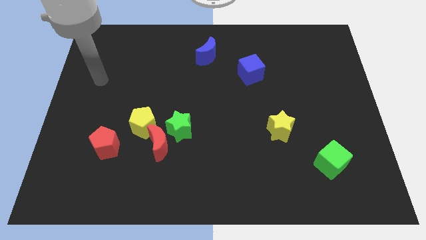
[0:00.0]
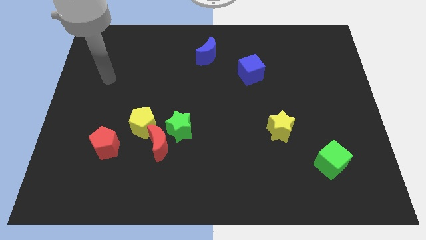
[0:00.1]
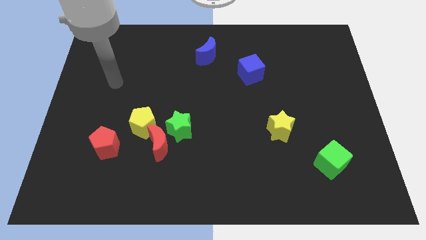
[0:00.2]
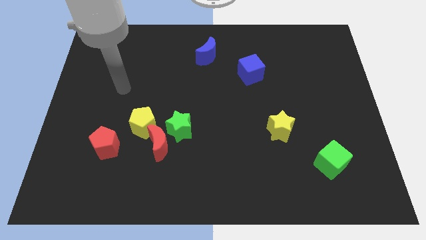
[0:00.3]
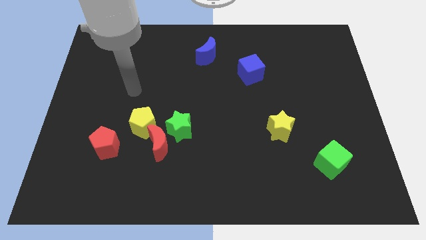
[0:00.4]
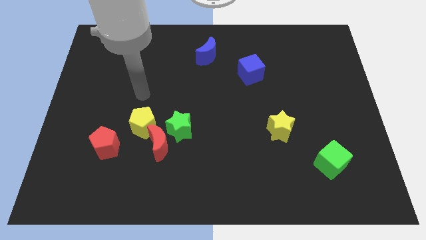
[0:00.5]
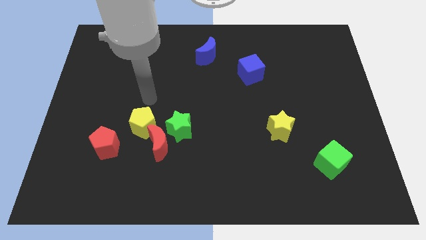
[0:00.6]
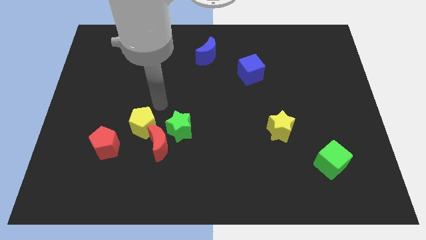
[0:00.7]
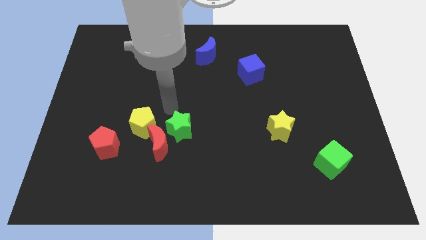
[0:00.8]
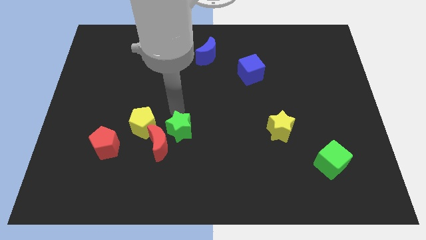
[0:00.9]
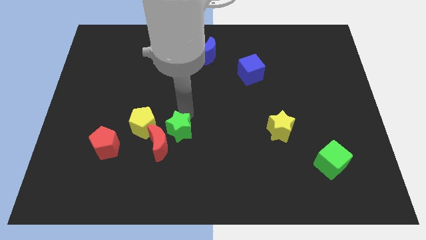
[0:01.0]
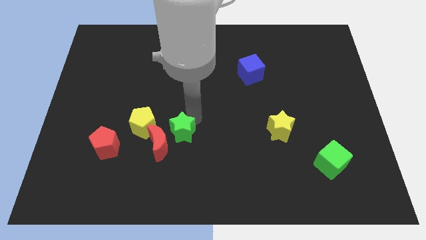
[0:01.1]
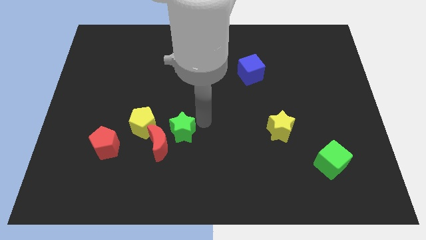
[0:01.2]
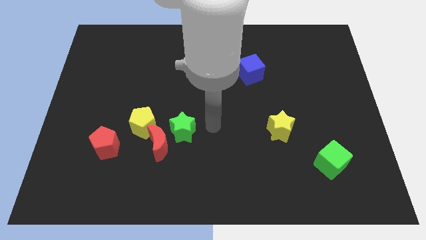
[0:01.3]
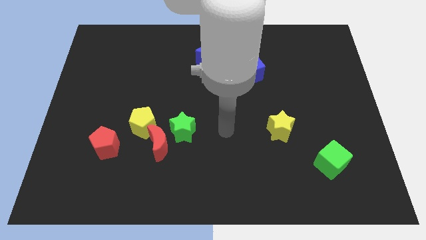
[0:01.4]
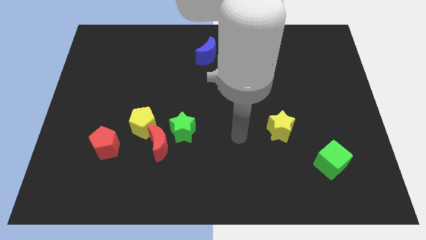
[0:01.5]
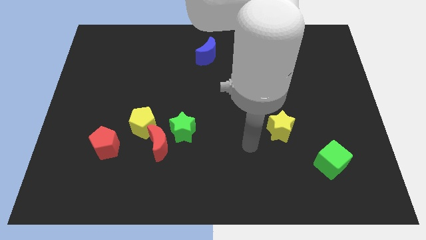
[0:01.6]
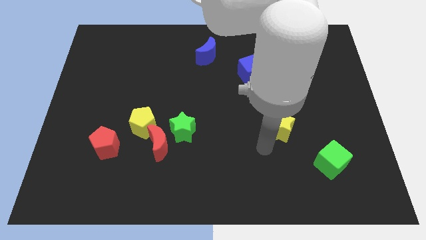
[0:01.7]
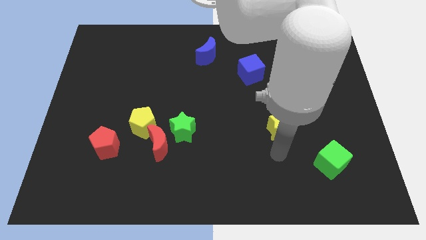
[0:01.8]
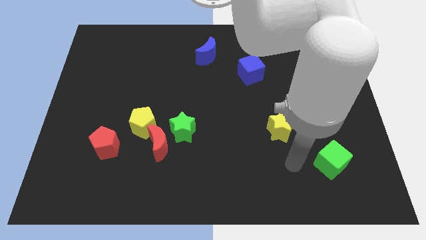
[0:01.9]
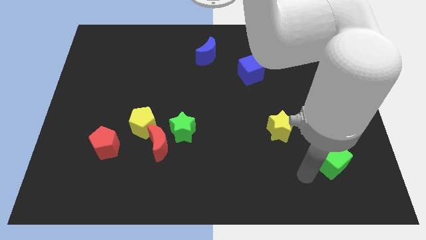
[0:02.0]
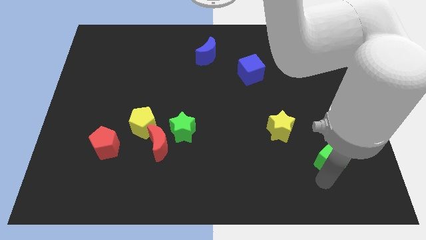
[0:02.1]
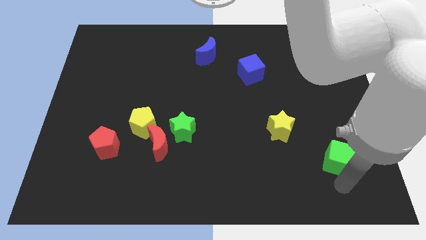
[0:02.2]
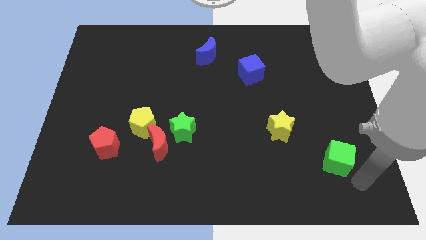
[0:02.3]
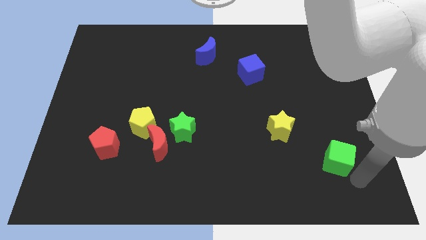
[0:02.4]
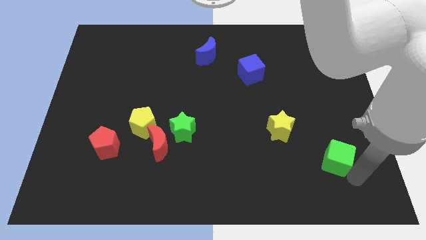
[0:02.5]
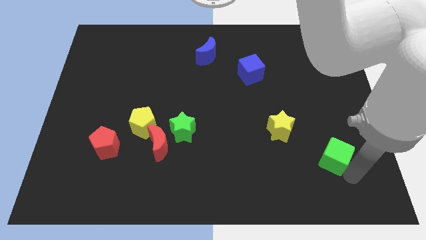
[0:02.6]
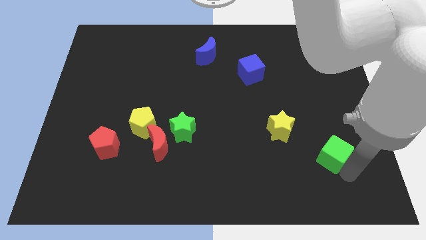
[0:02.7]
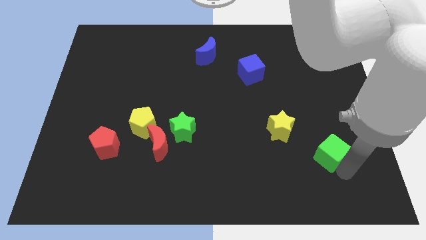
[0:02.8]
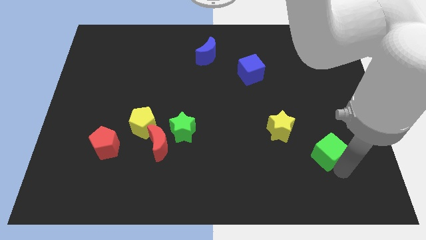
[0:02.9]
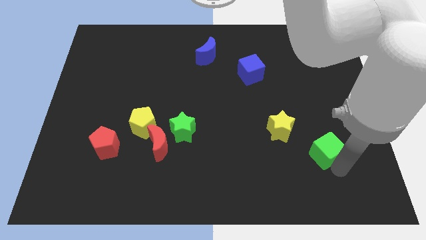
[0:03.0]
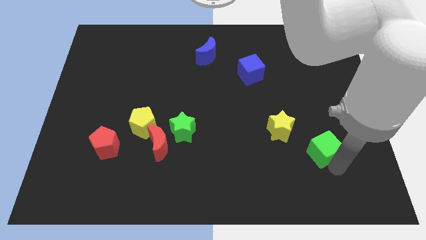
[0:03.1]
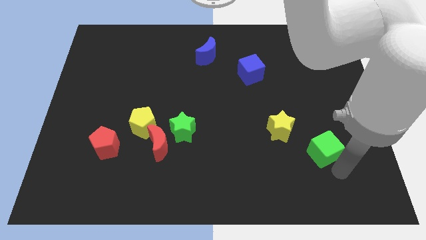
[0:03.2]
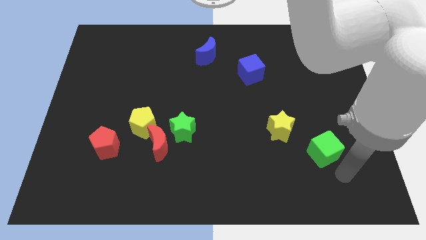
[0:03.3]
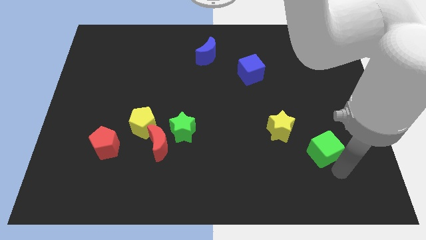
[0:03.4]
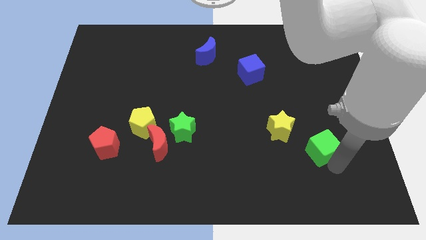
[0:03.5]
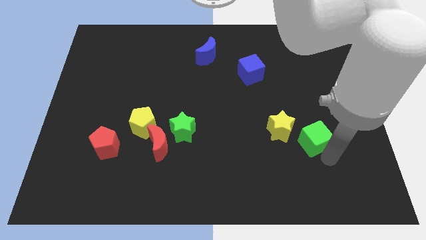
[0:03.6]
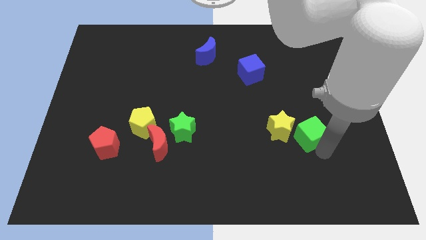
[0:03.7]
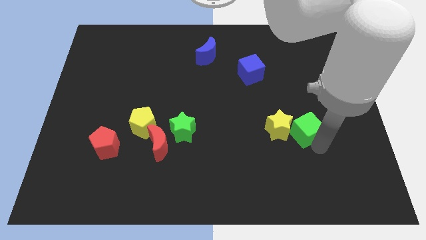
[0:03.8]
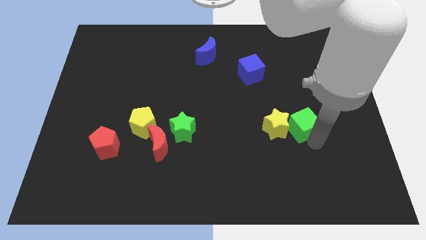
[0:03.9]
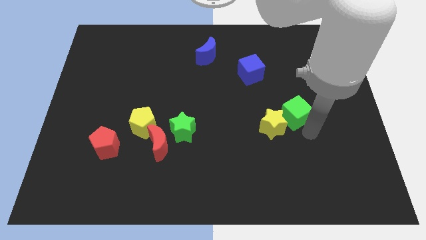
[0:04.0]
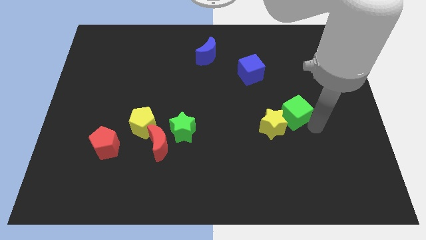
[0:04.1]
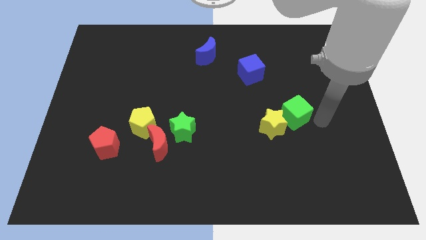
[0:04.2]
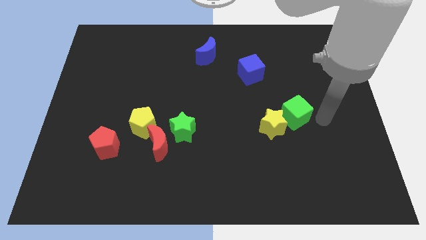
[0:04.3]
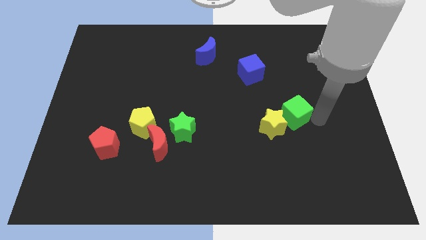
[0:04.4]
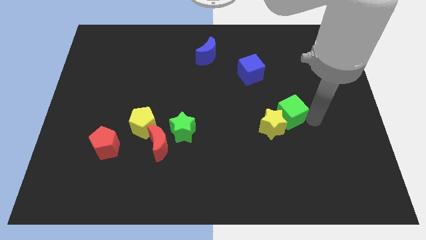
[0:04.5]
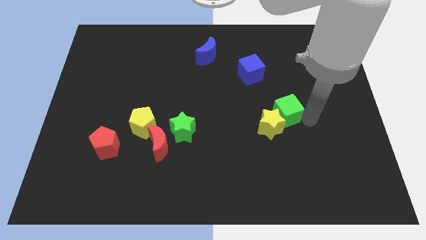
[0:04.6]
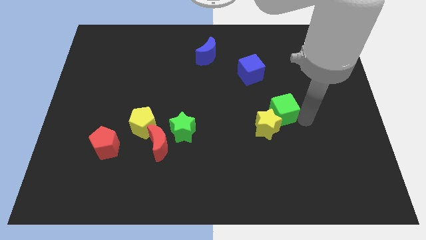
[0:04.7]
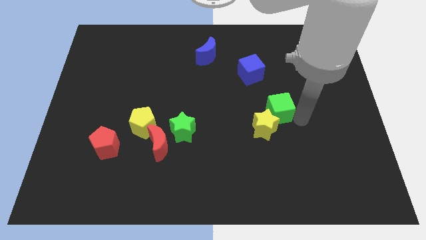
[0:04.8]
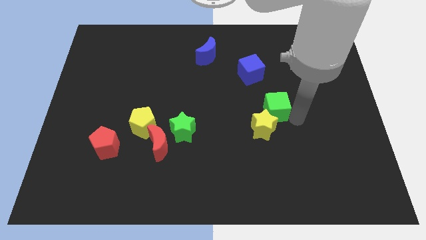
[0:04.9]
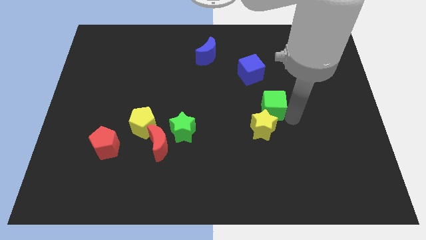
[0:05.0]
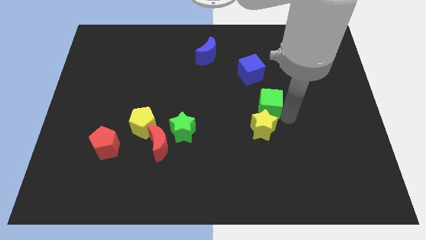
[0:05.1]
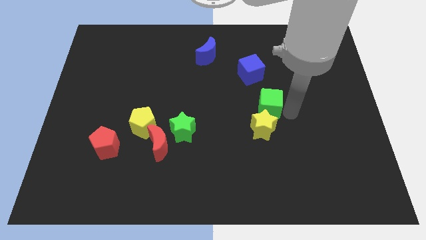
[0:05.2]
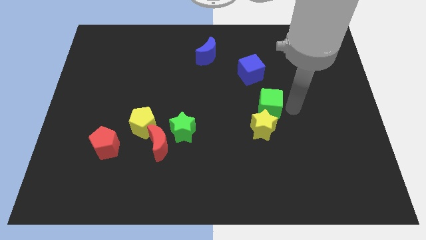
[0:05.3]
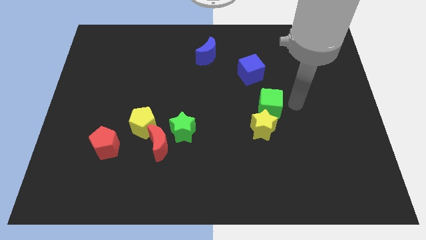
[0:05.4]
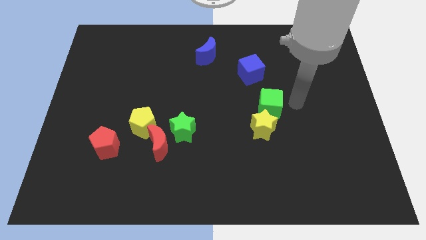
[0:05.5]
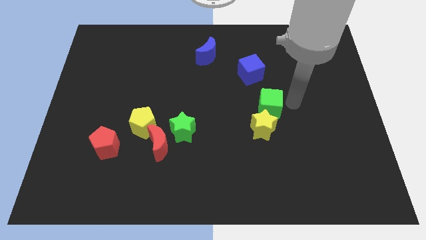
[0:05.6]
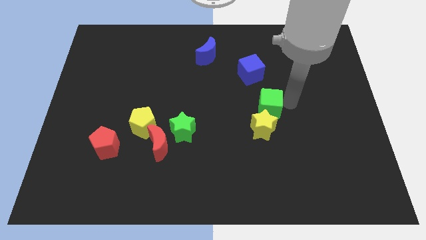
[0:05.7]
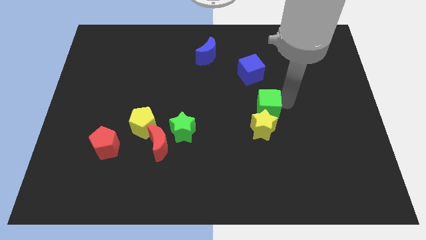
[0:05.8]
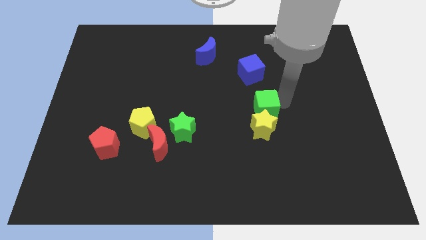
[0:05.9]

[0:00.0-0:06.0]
put the green cube diagonally up and to the left of the yellow star

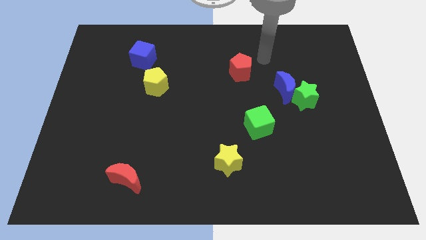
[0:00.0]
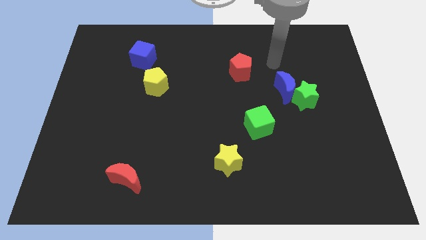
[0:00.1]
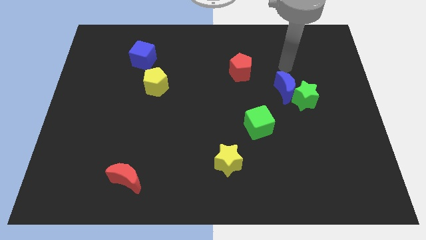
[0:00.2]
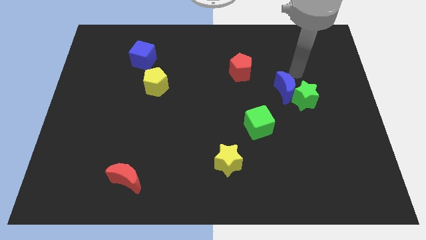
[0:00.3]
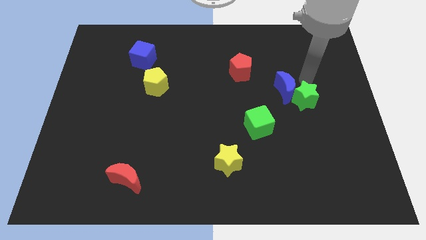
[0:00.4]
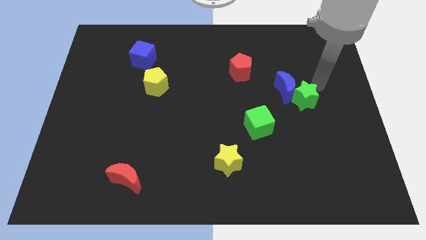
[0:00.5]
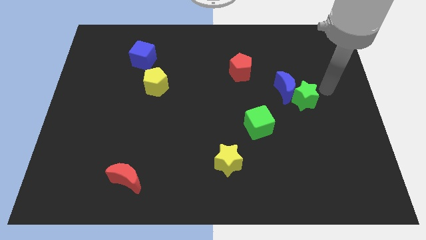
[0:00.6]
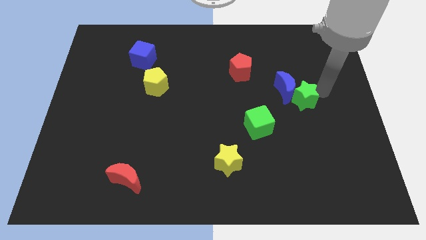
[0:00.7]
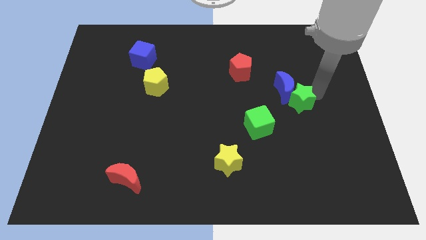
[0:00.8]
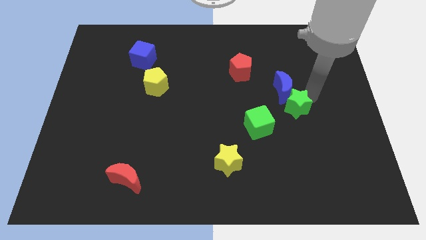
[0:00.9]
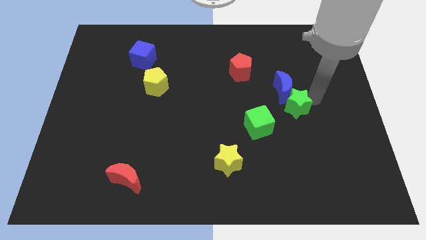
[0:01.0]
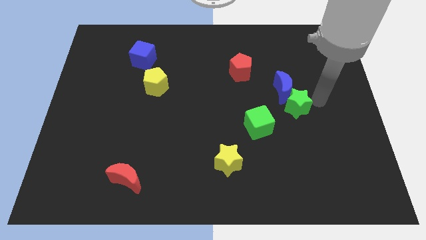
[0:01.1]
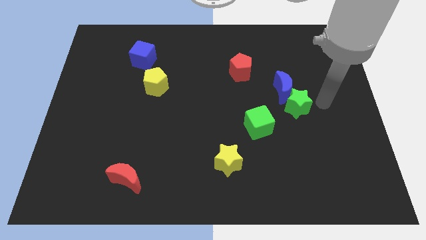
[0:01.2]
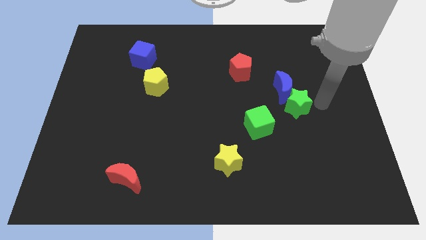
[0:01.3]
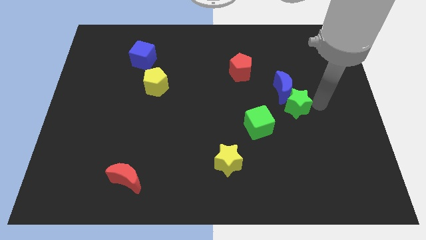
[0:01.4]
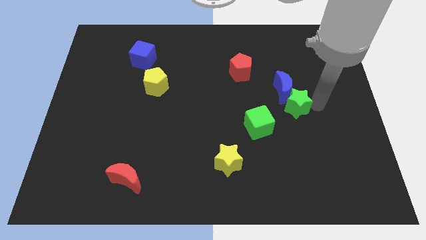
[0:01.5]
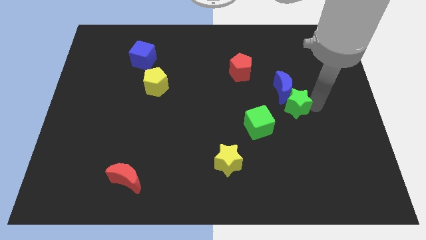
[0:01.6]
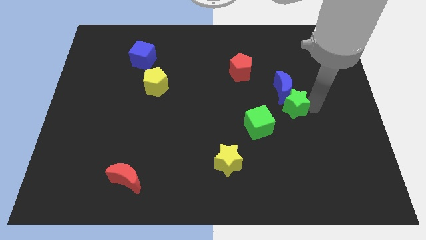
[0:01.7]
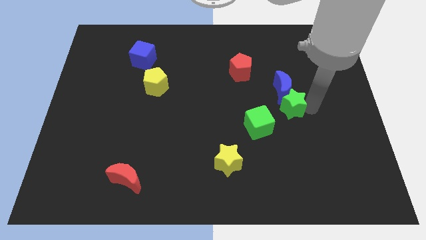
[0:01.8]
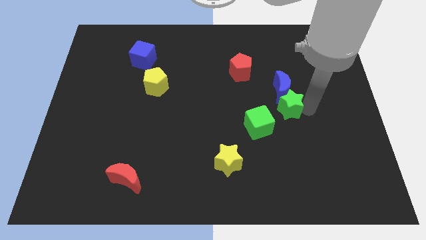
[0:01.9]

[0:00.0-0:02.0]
move the green star to the bottom left side of the blue moon
